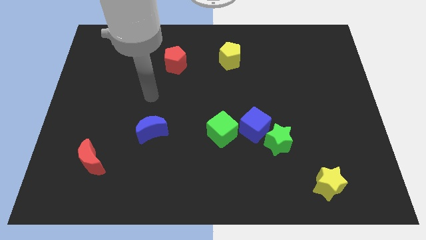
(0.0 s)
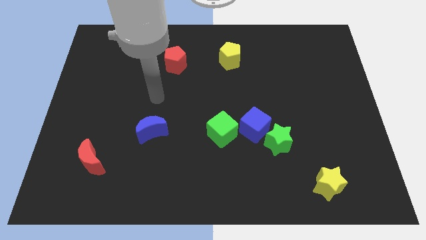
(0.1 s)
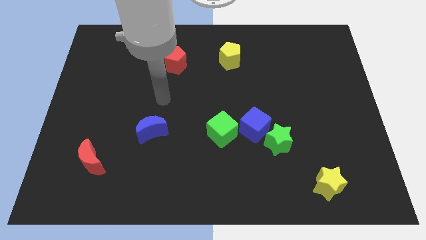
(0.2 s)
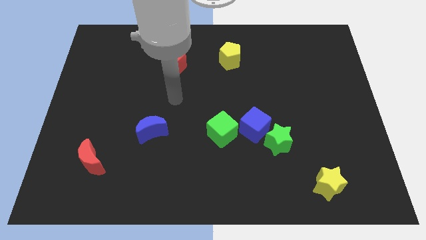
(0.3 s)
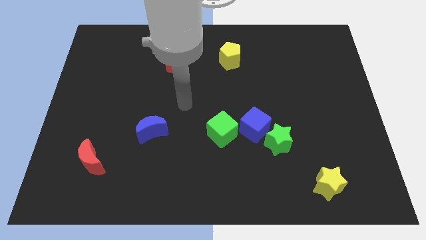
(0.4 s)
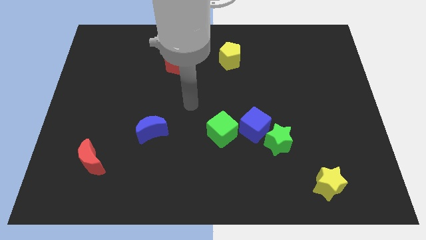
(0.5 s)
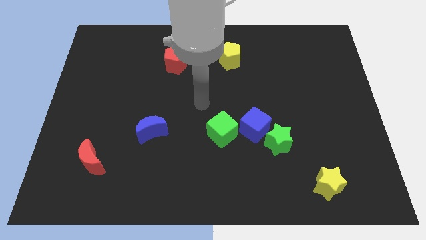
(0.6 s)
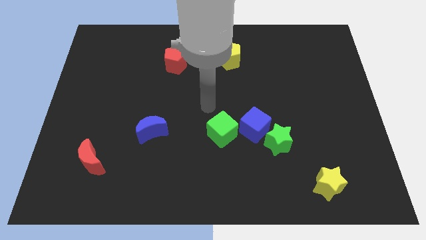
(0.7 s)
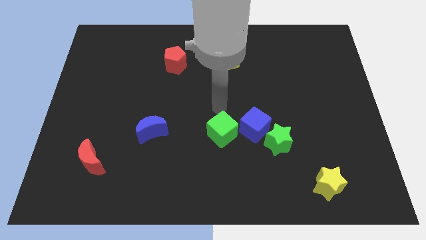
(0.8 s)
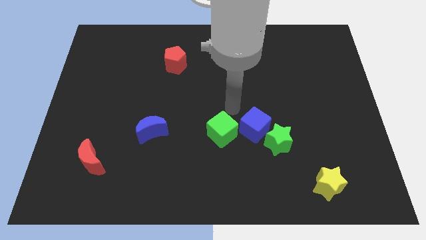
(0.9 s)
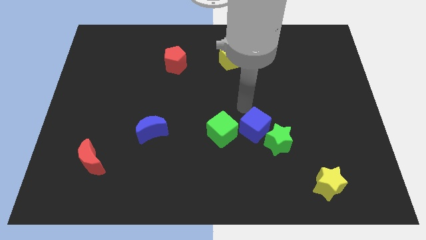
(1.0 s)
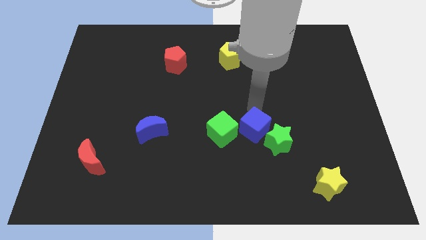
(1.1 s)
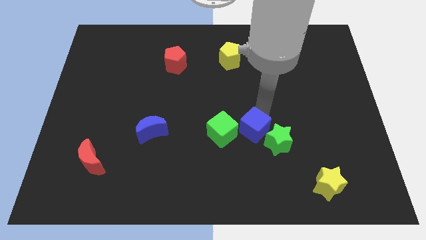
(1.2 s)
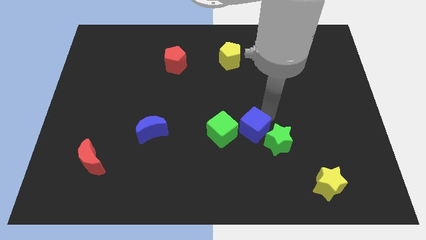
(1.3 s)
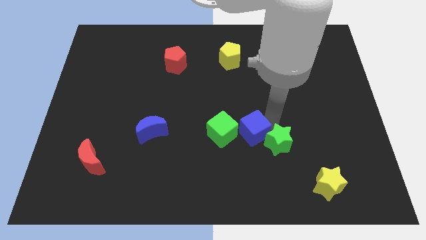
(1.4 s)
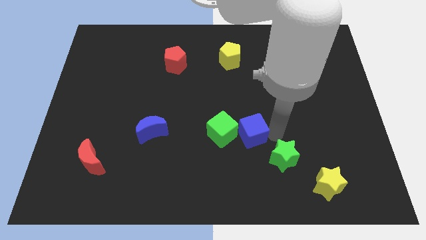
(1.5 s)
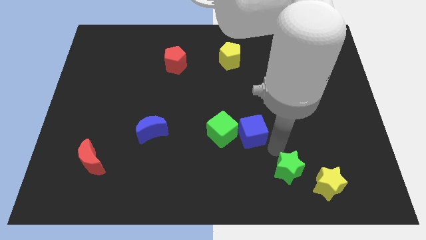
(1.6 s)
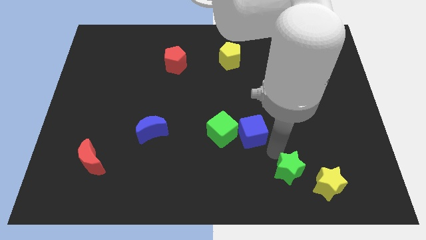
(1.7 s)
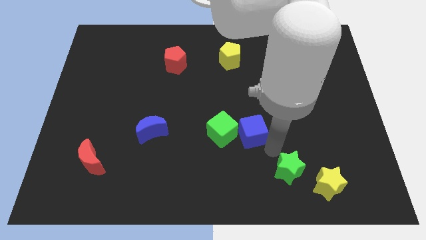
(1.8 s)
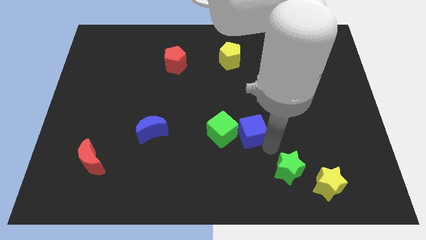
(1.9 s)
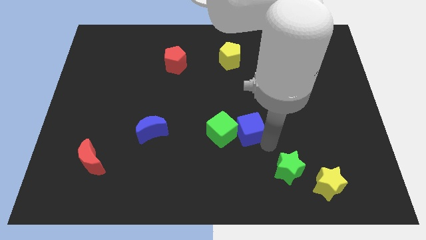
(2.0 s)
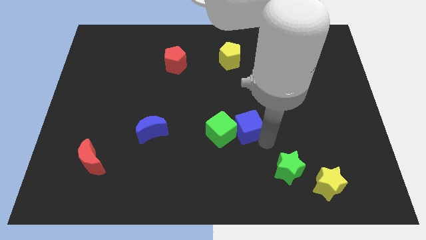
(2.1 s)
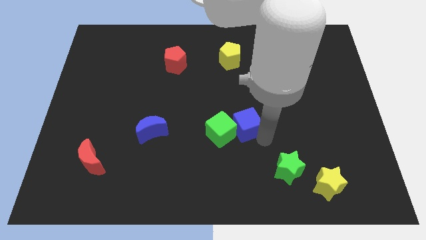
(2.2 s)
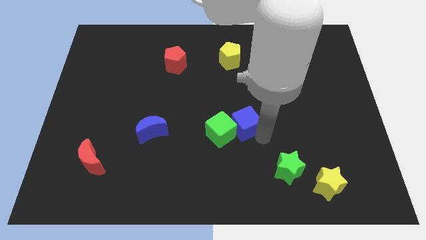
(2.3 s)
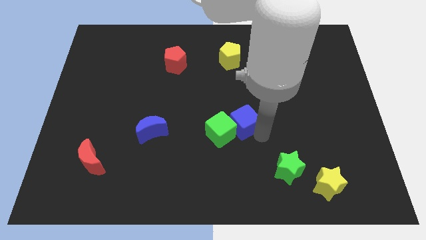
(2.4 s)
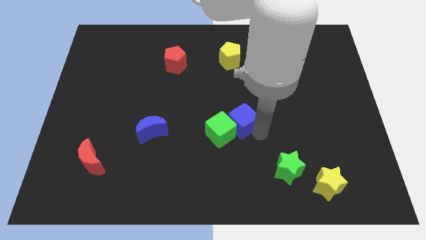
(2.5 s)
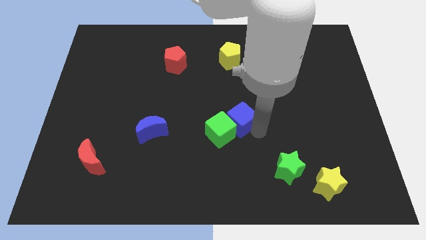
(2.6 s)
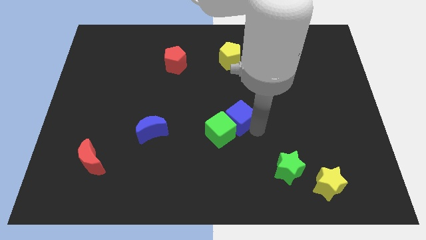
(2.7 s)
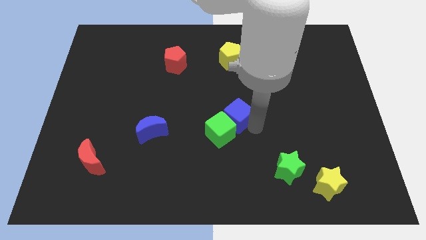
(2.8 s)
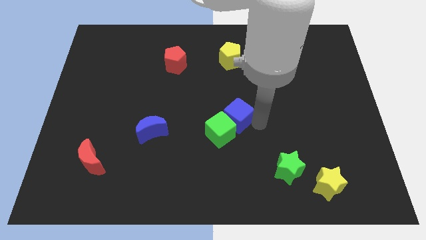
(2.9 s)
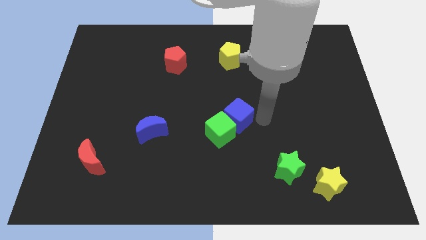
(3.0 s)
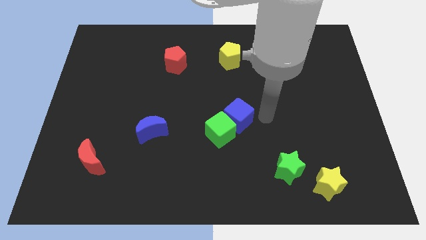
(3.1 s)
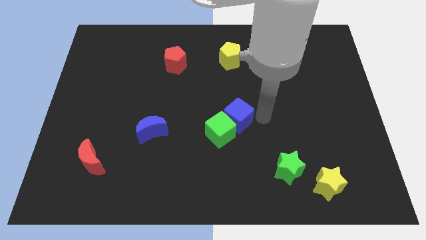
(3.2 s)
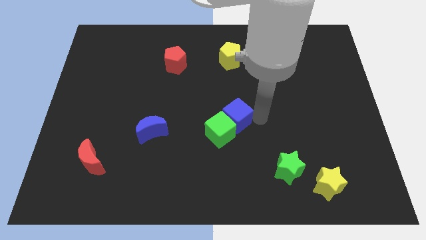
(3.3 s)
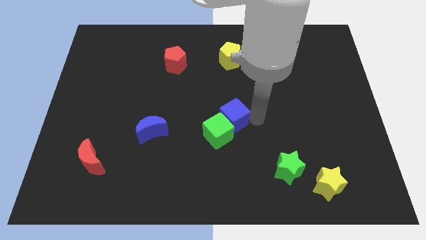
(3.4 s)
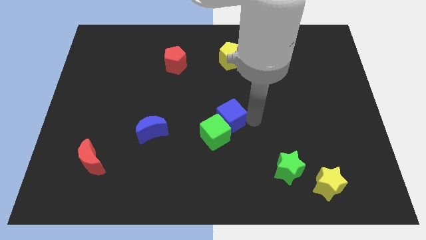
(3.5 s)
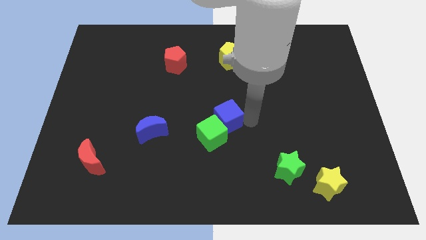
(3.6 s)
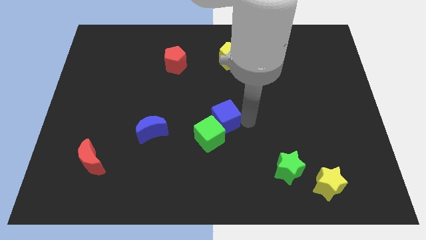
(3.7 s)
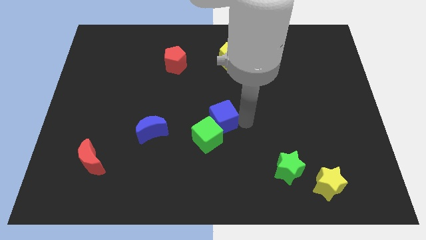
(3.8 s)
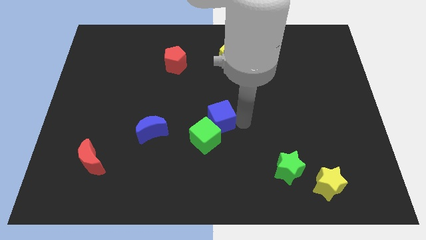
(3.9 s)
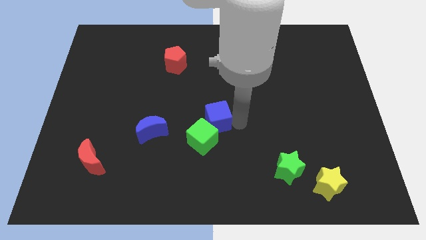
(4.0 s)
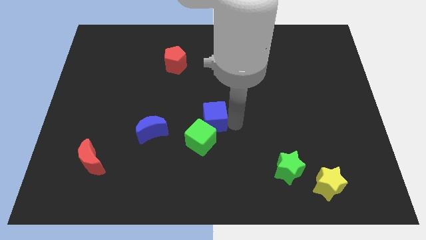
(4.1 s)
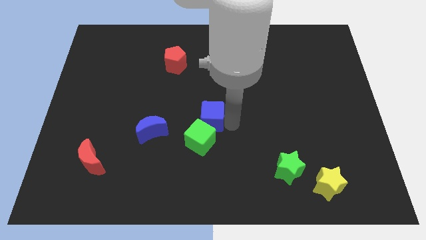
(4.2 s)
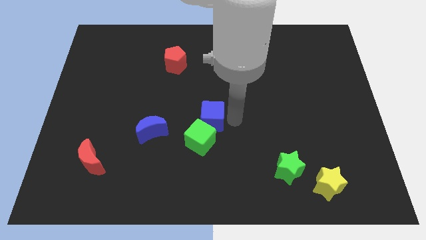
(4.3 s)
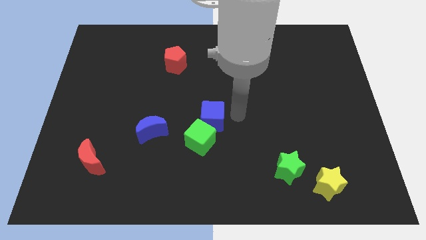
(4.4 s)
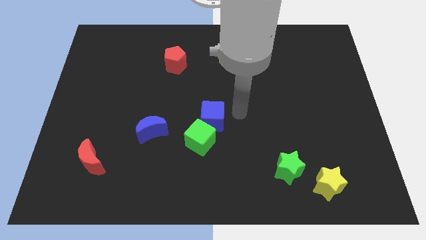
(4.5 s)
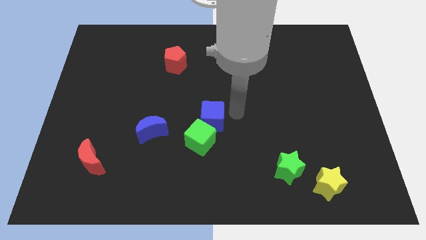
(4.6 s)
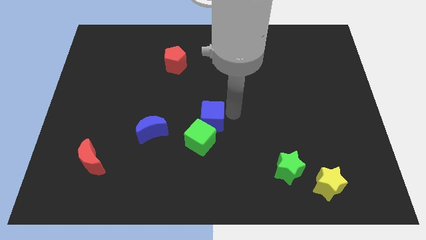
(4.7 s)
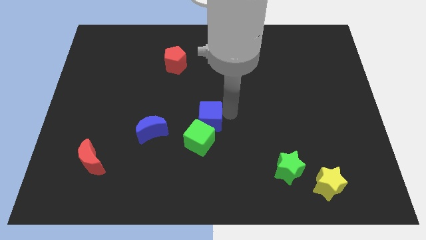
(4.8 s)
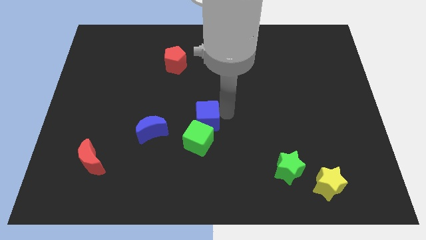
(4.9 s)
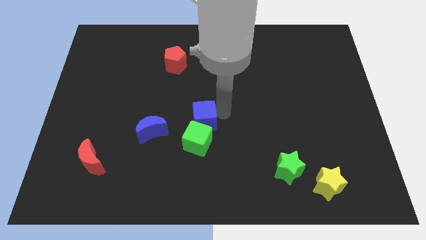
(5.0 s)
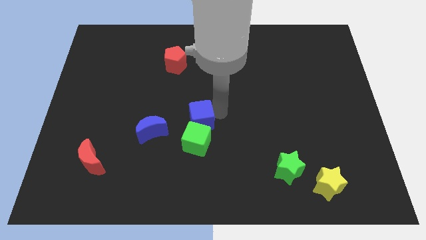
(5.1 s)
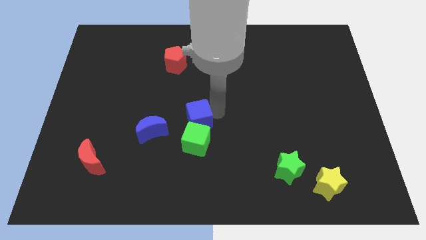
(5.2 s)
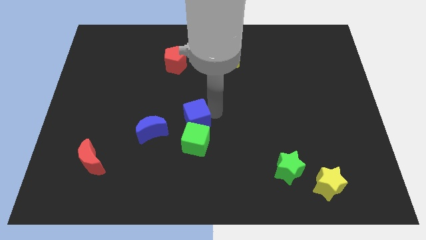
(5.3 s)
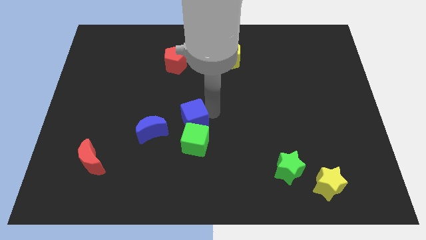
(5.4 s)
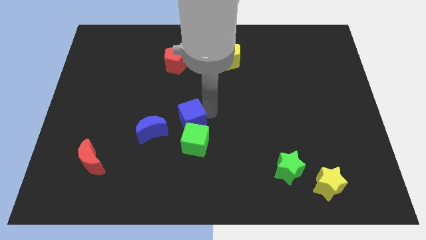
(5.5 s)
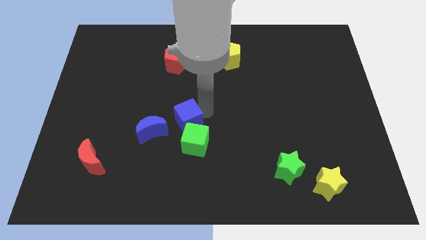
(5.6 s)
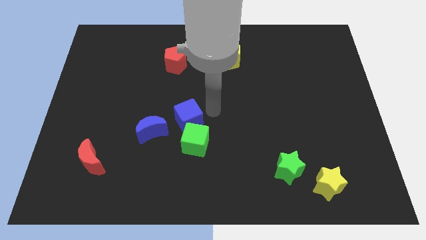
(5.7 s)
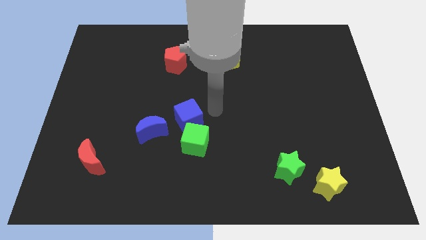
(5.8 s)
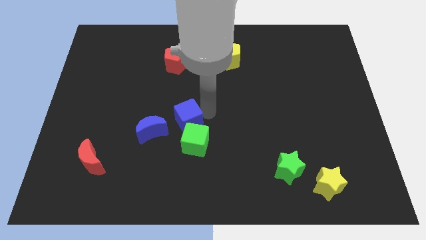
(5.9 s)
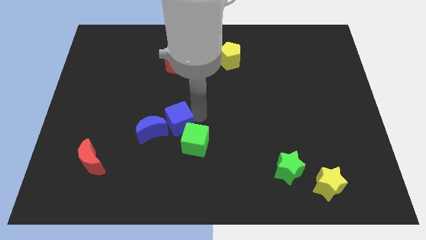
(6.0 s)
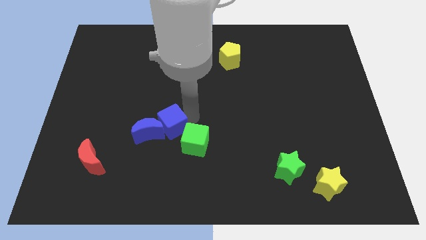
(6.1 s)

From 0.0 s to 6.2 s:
move the blue cube close to the blue moon
